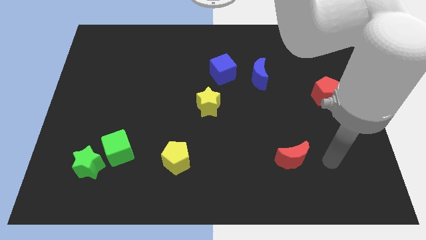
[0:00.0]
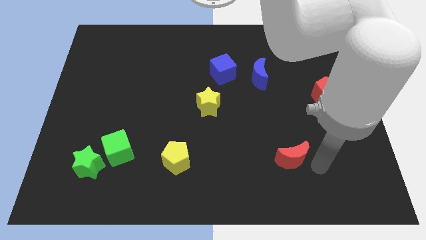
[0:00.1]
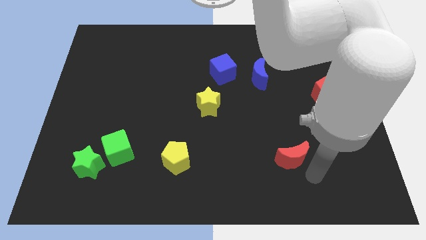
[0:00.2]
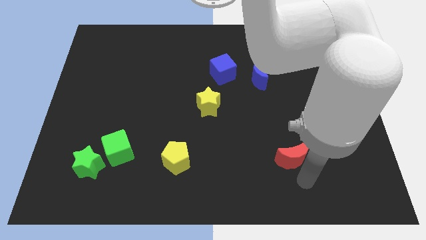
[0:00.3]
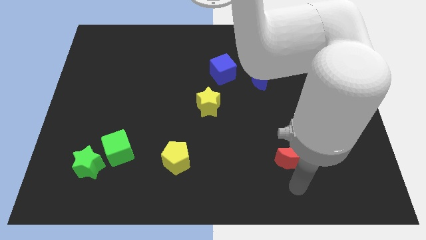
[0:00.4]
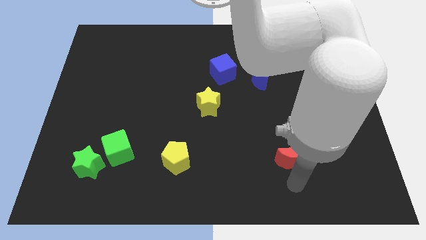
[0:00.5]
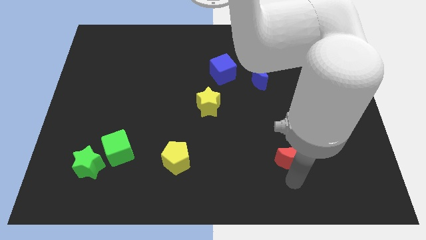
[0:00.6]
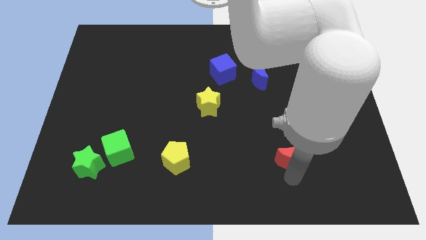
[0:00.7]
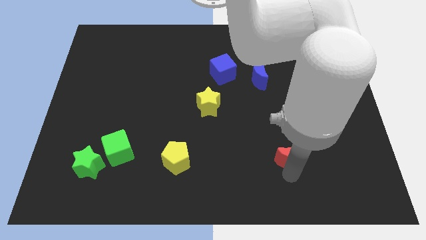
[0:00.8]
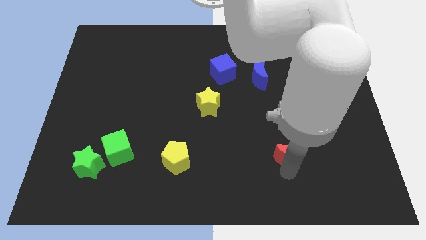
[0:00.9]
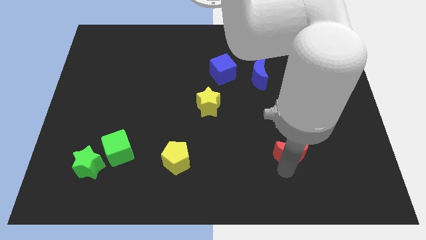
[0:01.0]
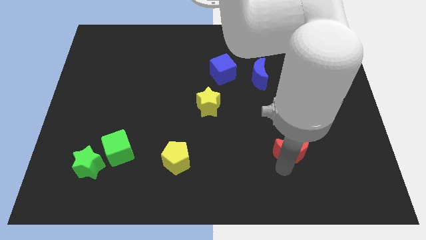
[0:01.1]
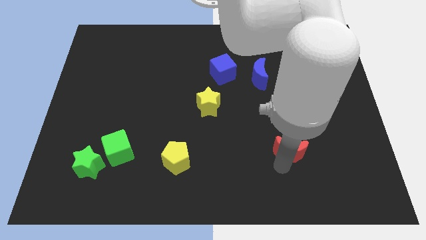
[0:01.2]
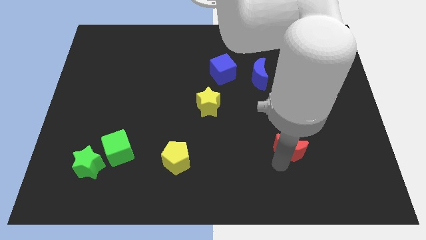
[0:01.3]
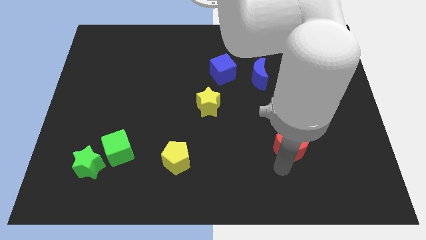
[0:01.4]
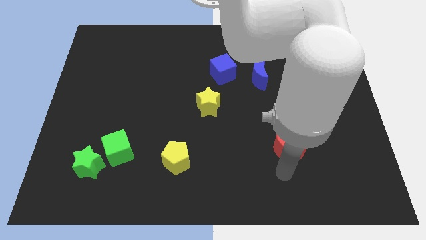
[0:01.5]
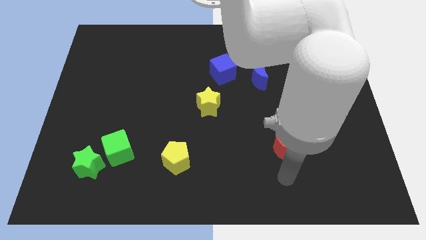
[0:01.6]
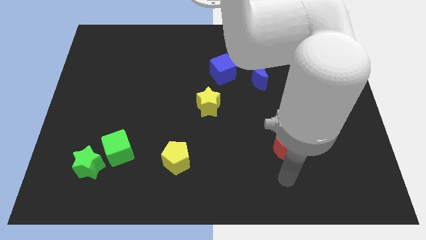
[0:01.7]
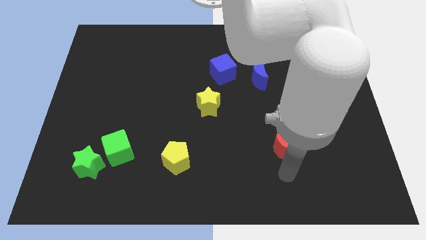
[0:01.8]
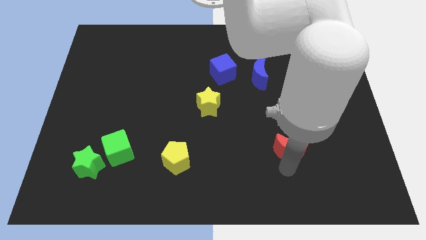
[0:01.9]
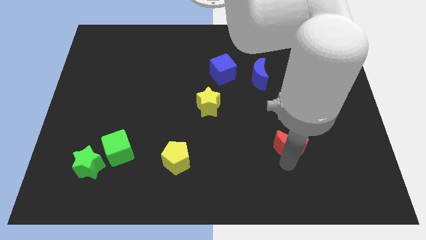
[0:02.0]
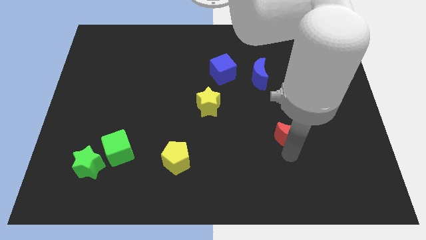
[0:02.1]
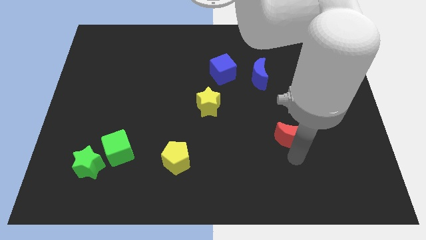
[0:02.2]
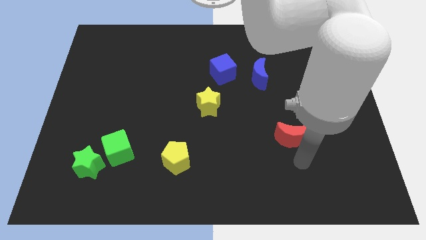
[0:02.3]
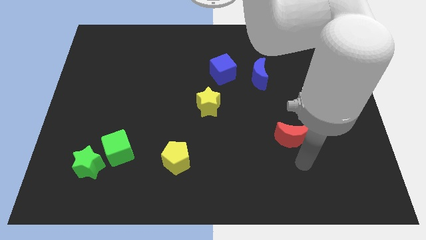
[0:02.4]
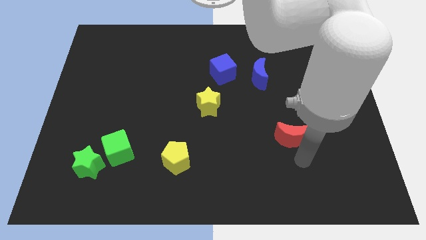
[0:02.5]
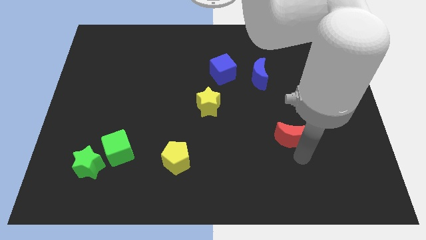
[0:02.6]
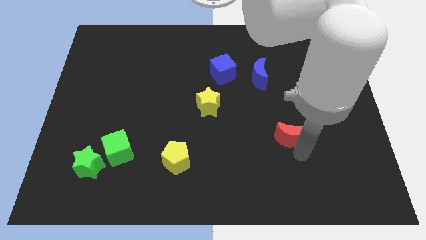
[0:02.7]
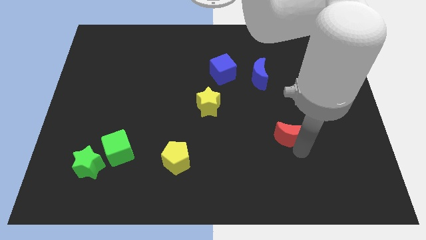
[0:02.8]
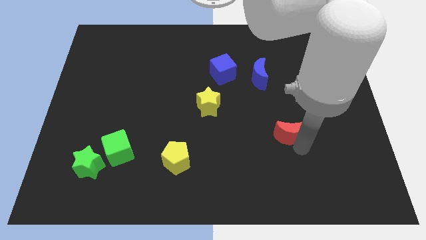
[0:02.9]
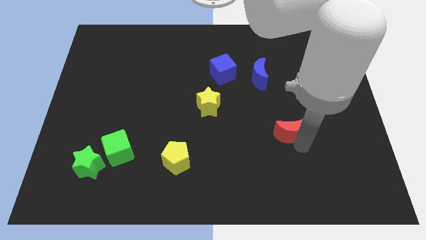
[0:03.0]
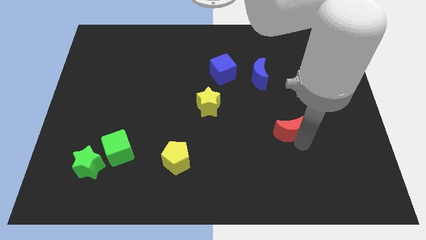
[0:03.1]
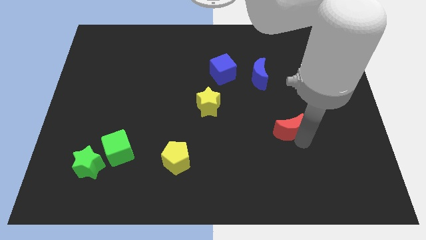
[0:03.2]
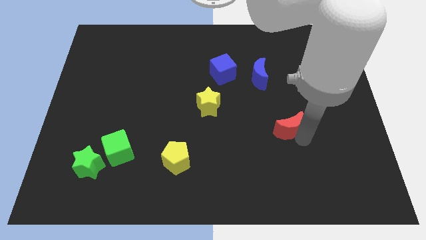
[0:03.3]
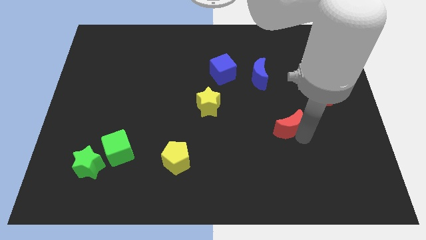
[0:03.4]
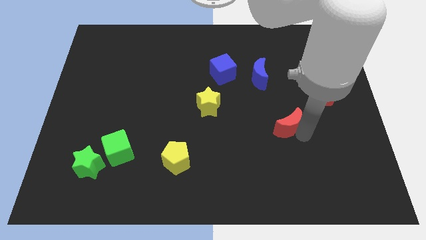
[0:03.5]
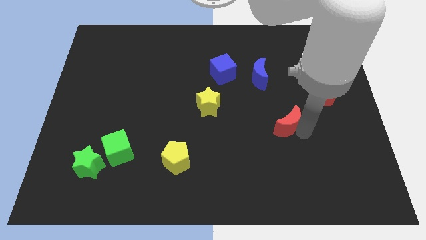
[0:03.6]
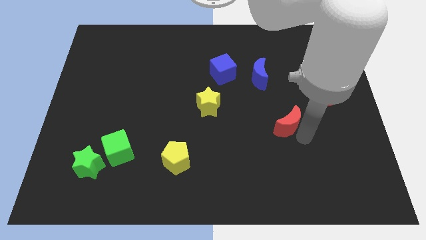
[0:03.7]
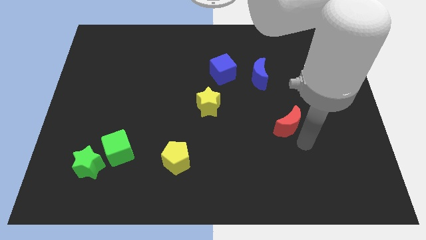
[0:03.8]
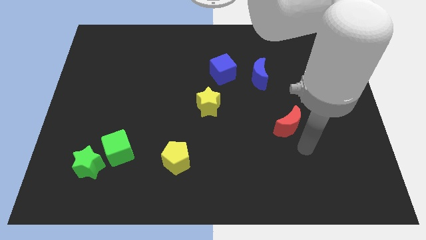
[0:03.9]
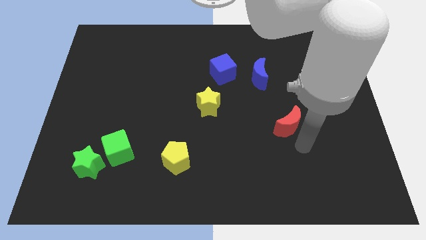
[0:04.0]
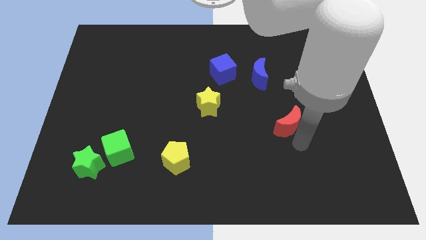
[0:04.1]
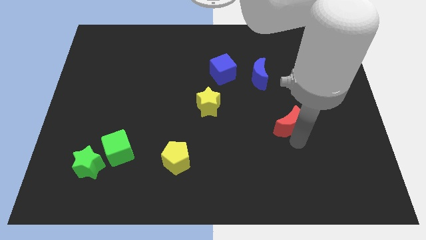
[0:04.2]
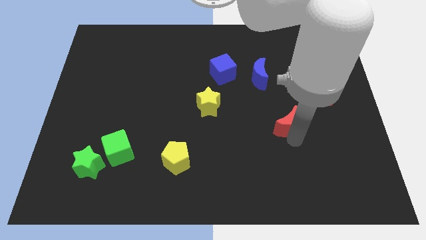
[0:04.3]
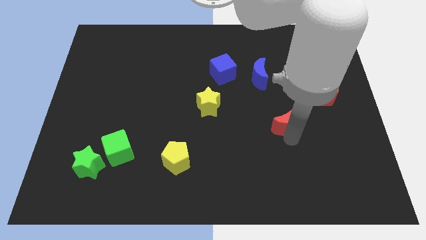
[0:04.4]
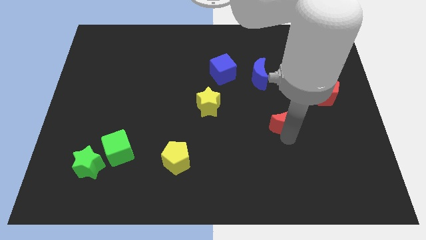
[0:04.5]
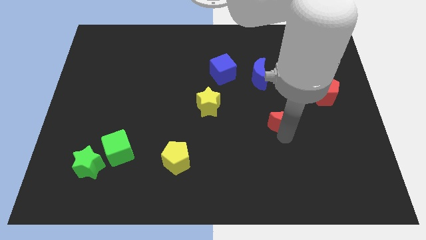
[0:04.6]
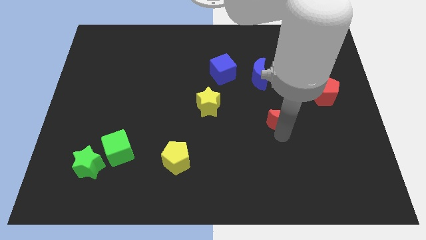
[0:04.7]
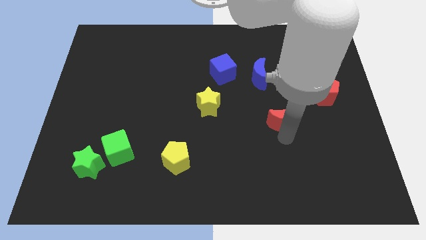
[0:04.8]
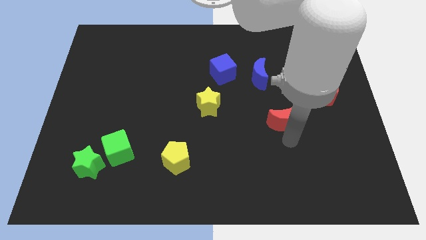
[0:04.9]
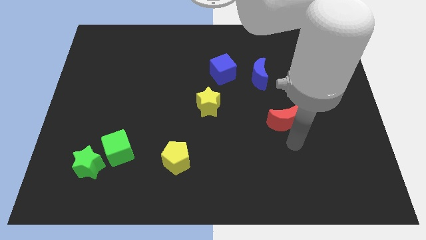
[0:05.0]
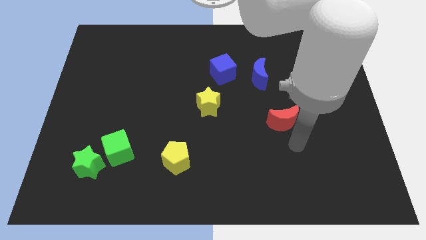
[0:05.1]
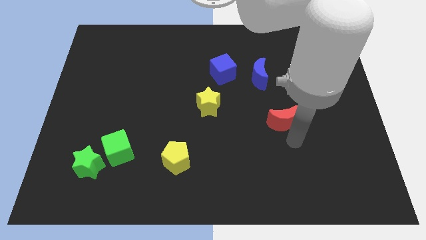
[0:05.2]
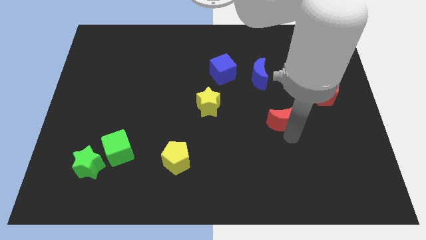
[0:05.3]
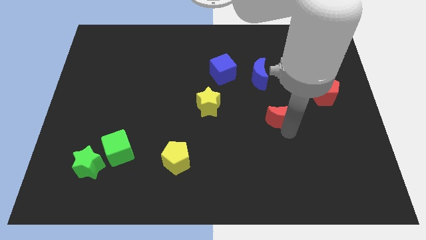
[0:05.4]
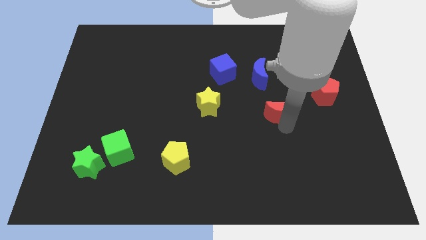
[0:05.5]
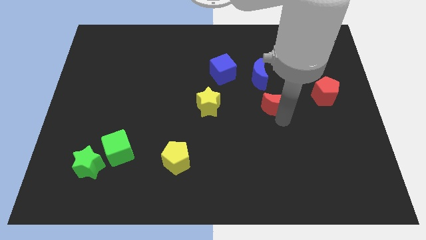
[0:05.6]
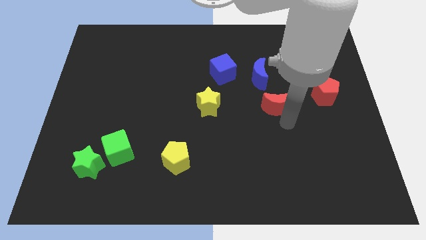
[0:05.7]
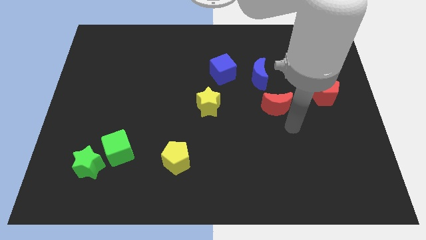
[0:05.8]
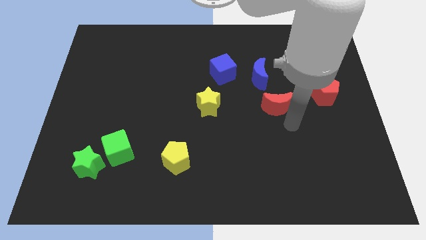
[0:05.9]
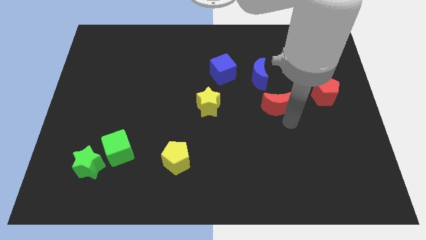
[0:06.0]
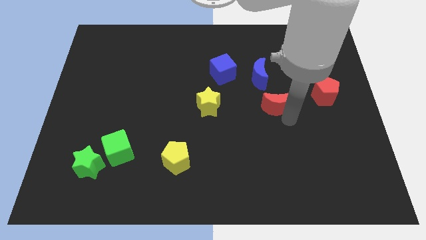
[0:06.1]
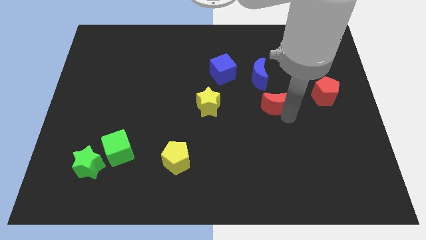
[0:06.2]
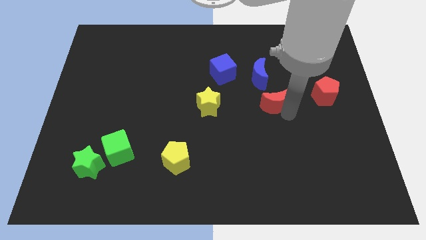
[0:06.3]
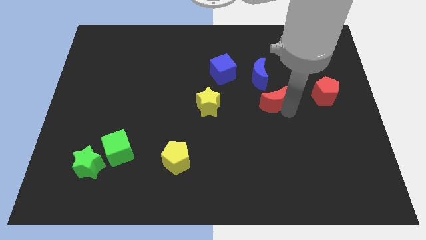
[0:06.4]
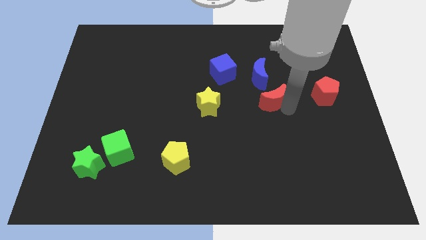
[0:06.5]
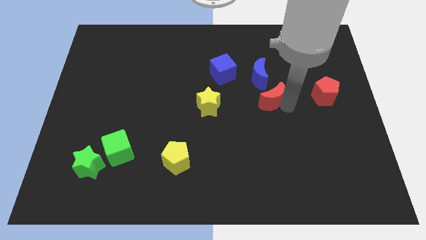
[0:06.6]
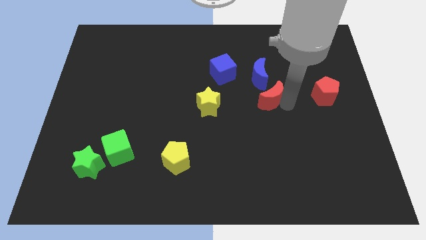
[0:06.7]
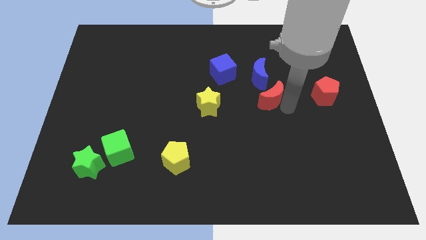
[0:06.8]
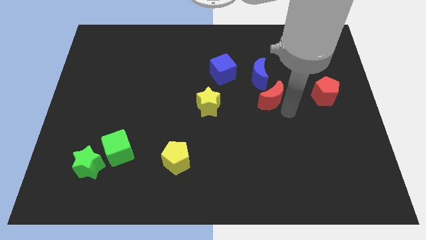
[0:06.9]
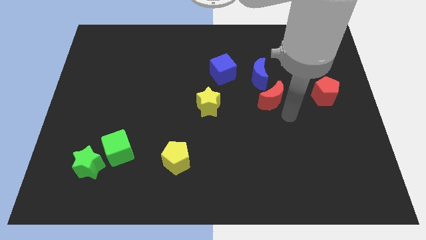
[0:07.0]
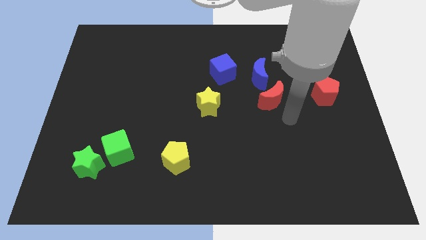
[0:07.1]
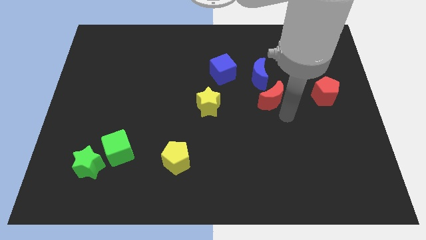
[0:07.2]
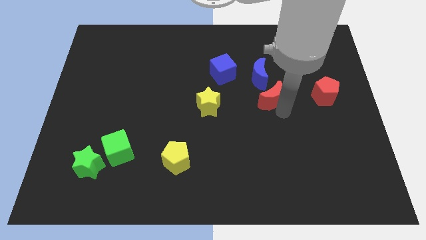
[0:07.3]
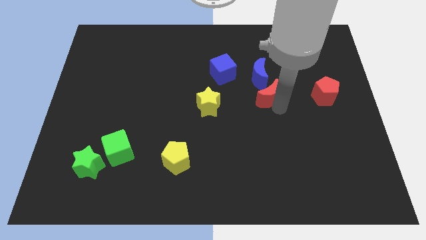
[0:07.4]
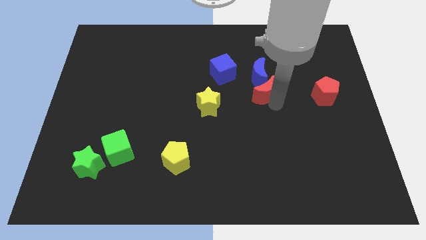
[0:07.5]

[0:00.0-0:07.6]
push the red moon to the blue moon
